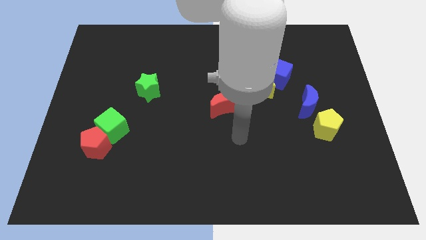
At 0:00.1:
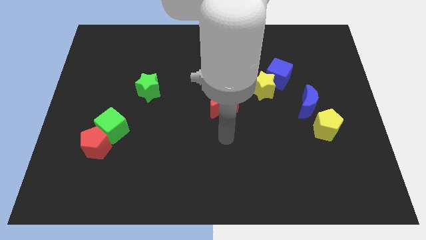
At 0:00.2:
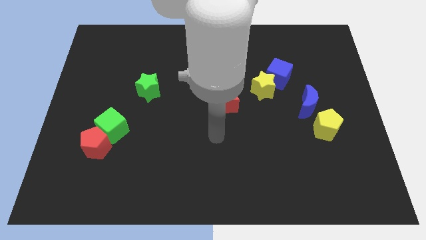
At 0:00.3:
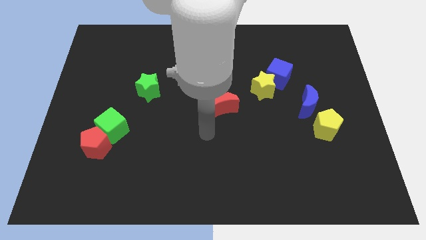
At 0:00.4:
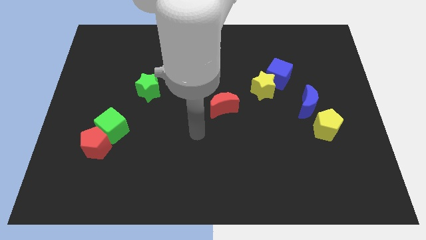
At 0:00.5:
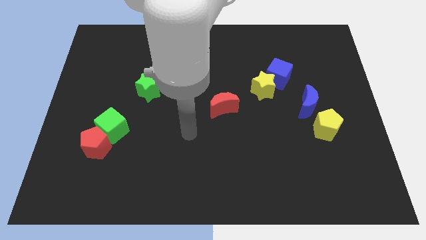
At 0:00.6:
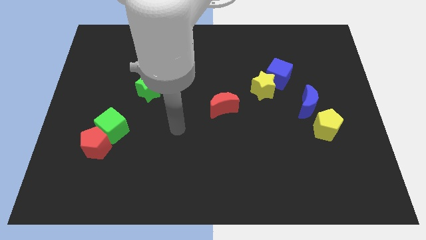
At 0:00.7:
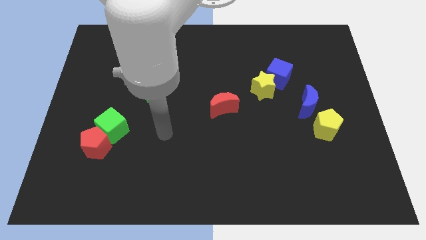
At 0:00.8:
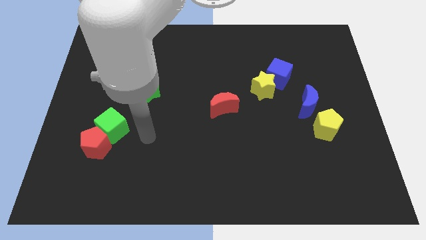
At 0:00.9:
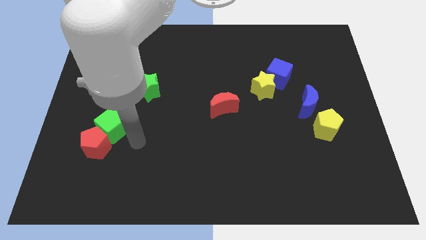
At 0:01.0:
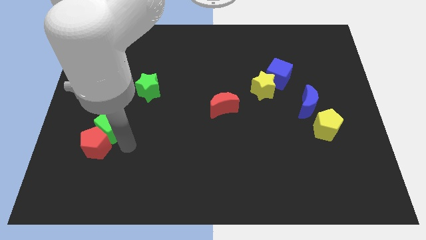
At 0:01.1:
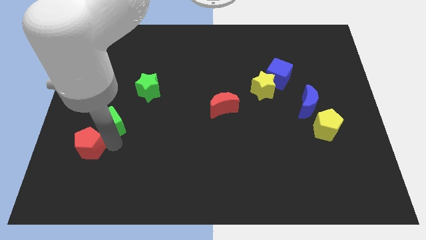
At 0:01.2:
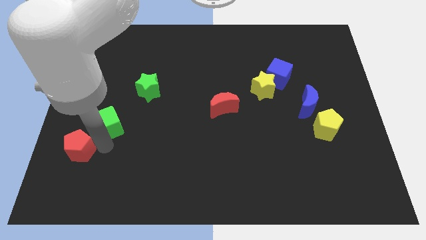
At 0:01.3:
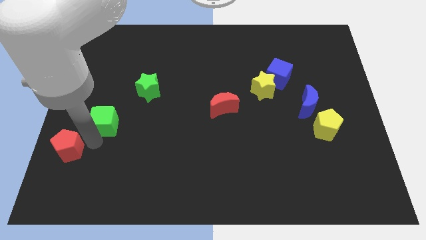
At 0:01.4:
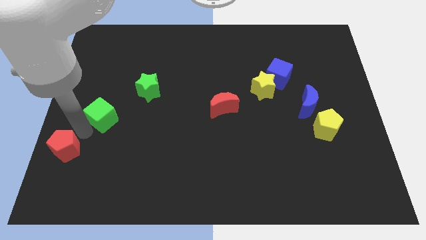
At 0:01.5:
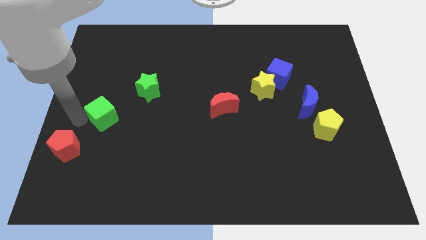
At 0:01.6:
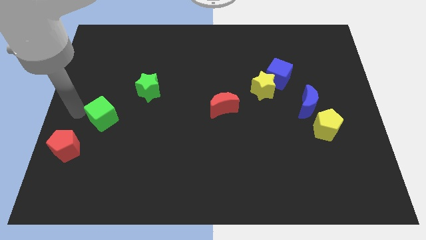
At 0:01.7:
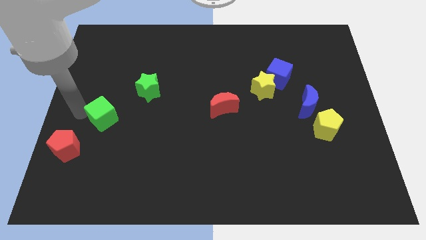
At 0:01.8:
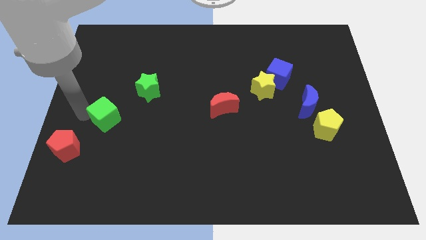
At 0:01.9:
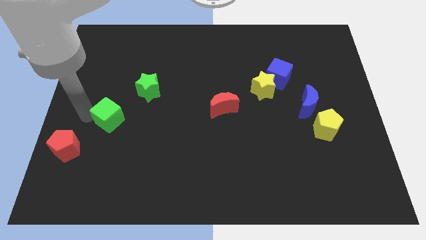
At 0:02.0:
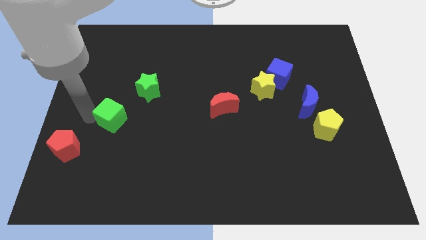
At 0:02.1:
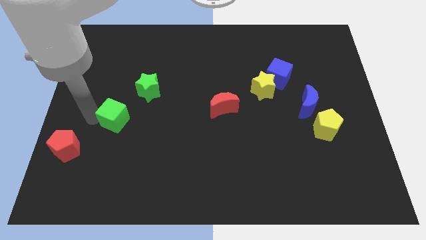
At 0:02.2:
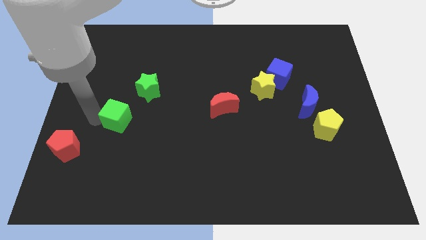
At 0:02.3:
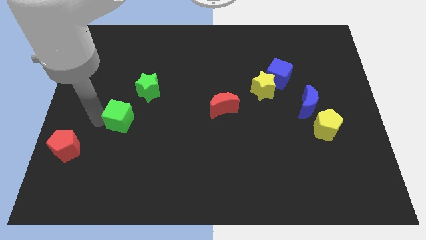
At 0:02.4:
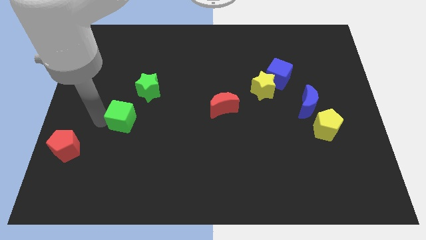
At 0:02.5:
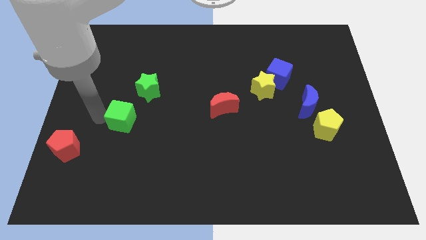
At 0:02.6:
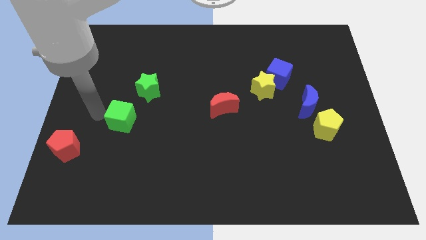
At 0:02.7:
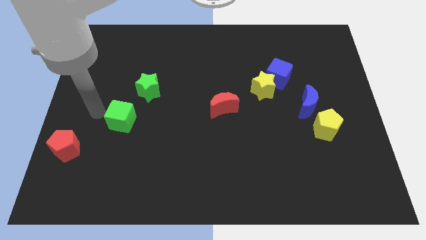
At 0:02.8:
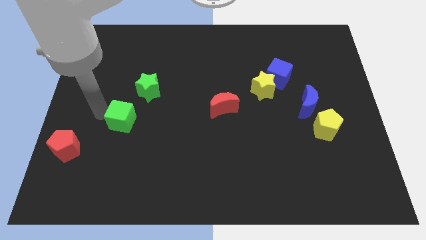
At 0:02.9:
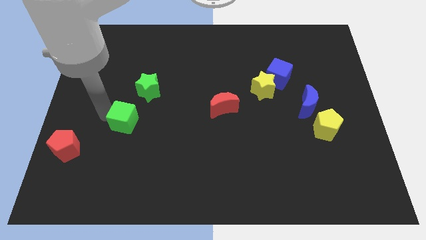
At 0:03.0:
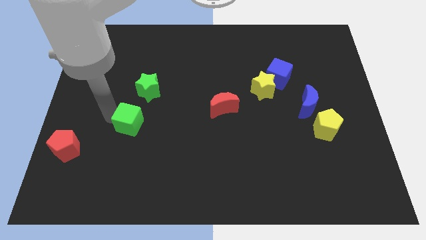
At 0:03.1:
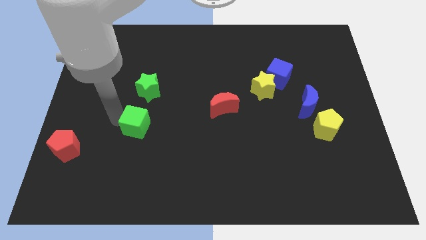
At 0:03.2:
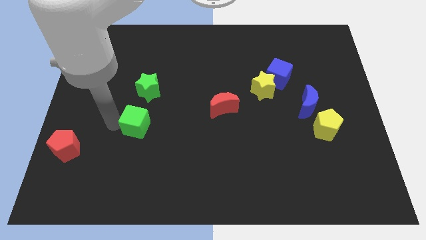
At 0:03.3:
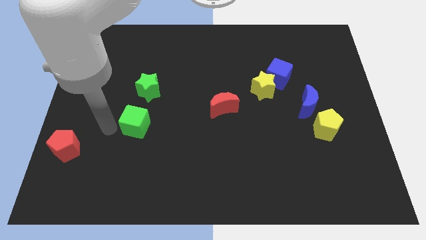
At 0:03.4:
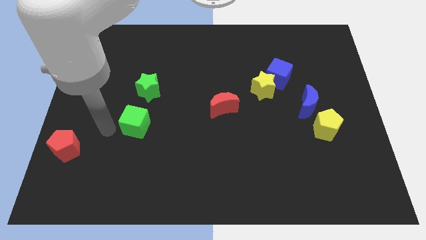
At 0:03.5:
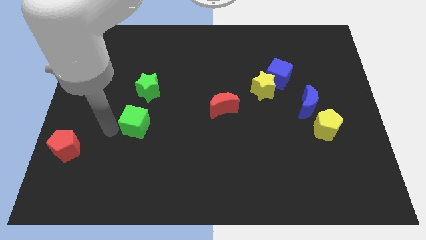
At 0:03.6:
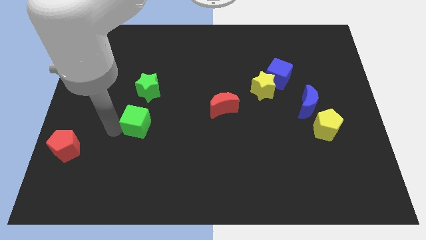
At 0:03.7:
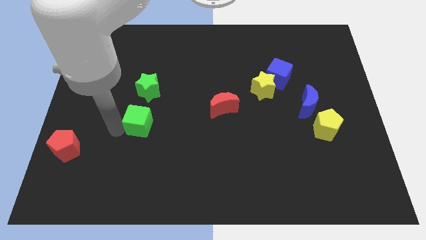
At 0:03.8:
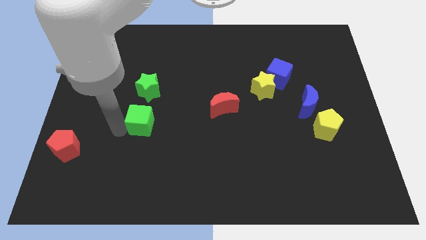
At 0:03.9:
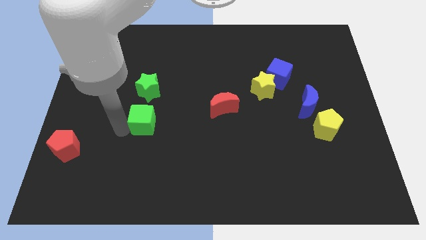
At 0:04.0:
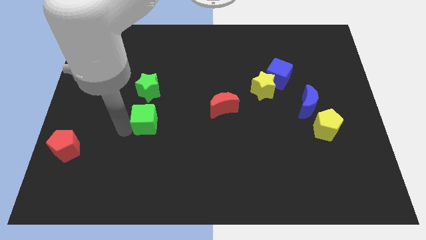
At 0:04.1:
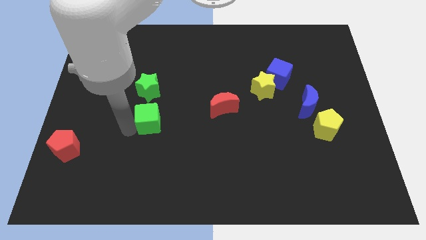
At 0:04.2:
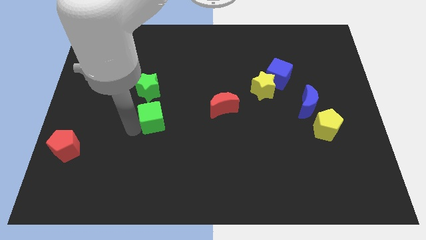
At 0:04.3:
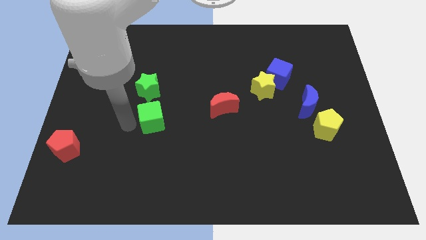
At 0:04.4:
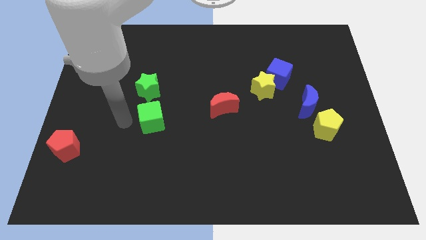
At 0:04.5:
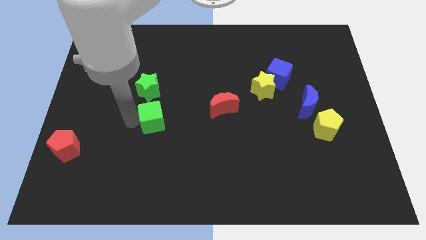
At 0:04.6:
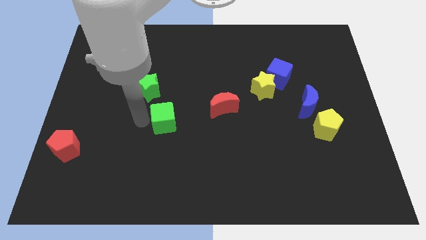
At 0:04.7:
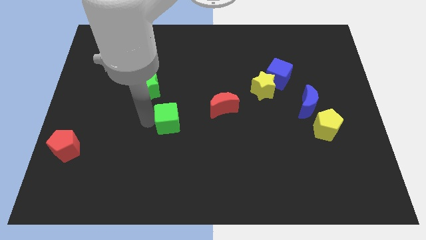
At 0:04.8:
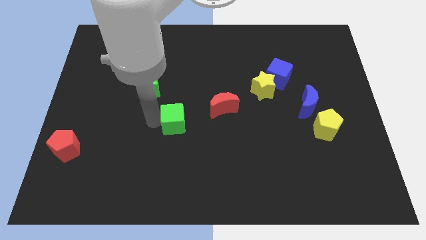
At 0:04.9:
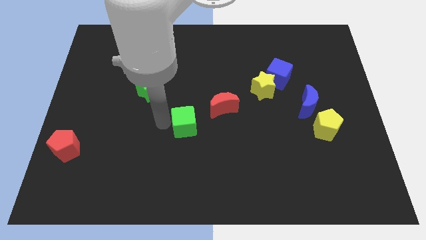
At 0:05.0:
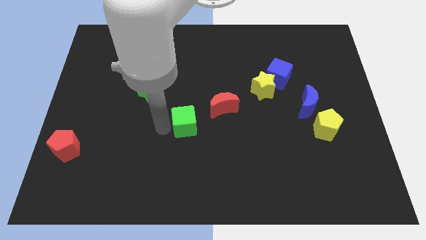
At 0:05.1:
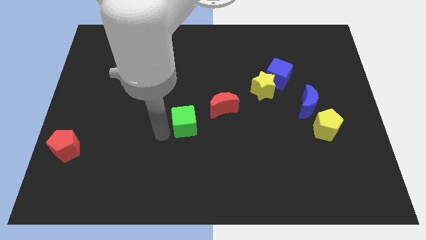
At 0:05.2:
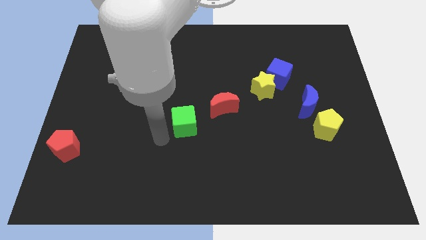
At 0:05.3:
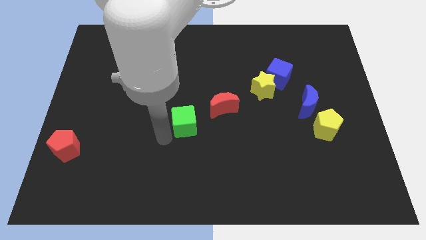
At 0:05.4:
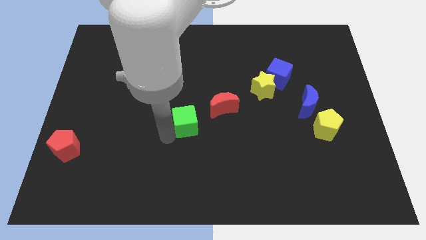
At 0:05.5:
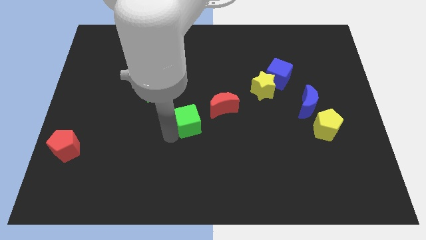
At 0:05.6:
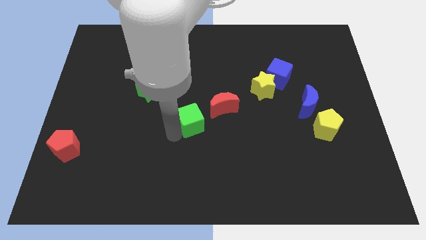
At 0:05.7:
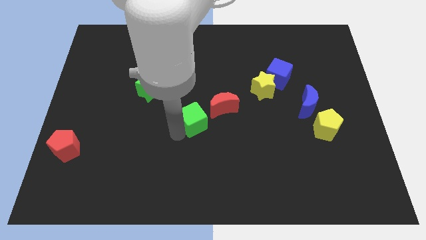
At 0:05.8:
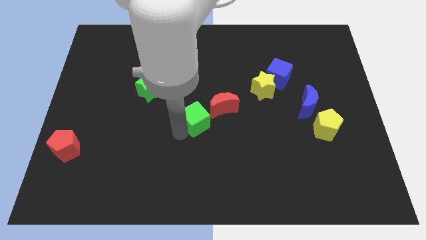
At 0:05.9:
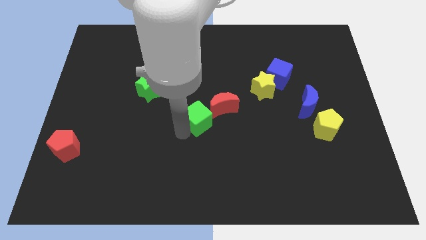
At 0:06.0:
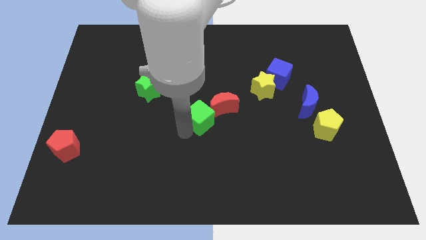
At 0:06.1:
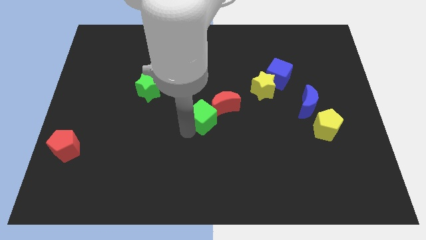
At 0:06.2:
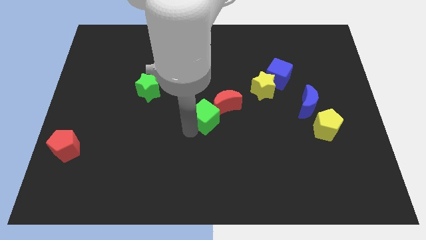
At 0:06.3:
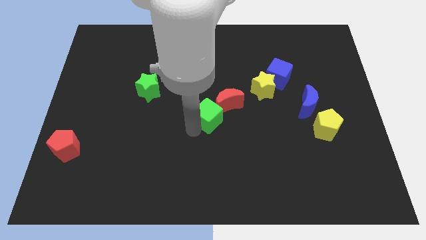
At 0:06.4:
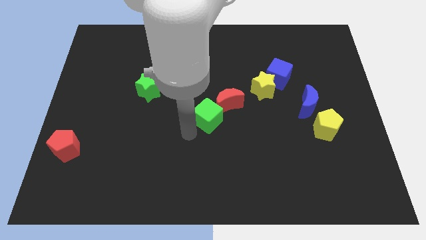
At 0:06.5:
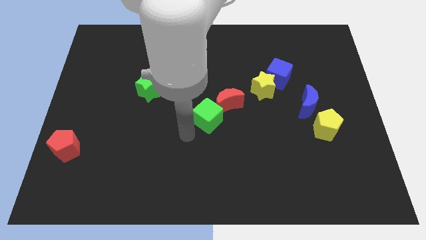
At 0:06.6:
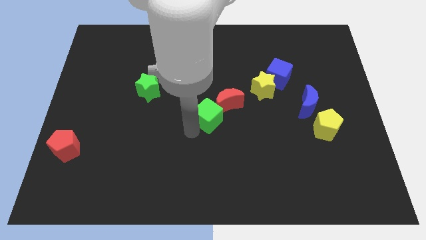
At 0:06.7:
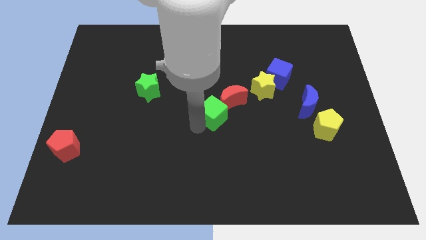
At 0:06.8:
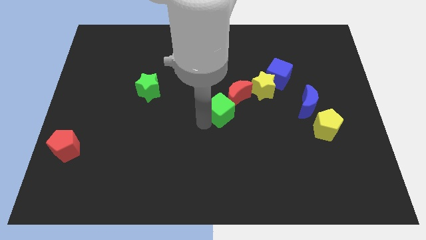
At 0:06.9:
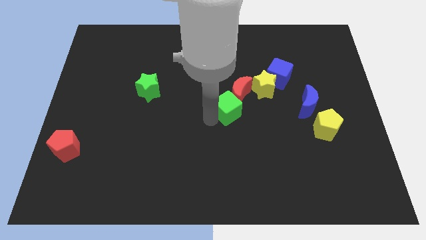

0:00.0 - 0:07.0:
put the green cube next to the red moon
